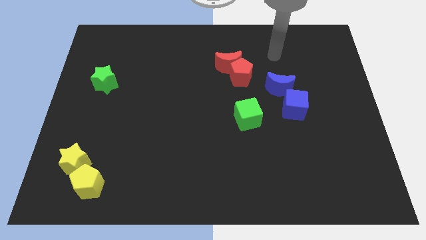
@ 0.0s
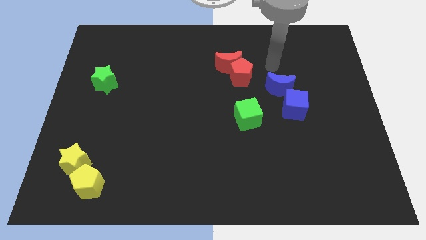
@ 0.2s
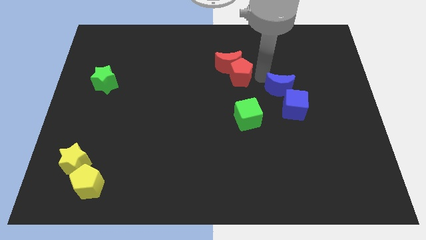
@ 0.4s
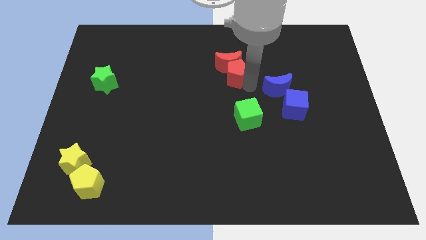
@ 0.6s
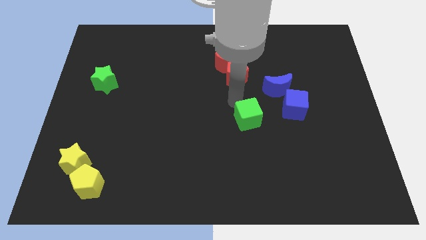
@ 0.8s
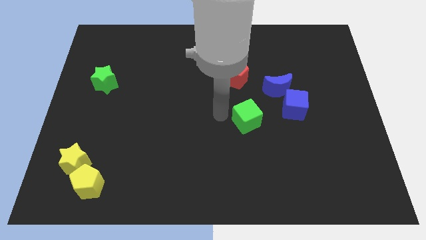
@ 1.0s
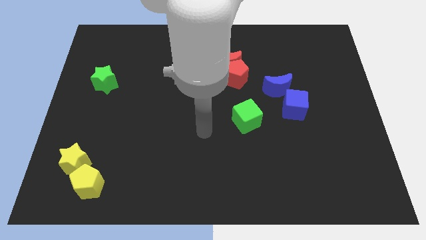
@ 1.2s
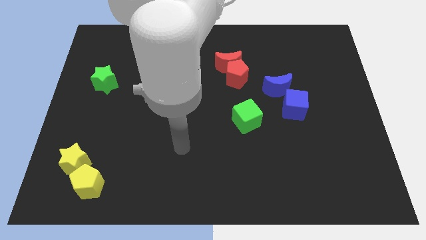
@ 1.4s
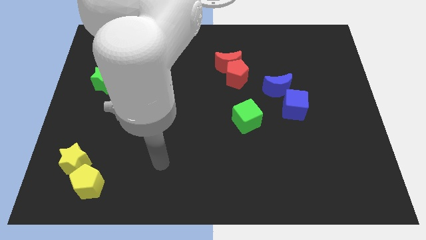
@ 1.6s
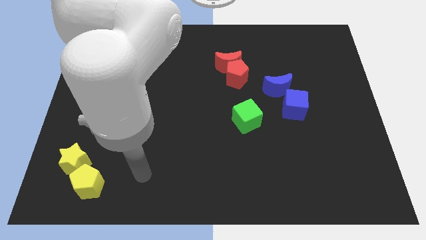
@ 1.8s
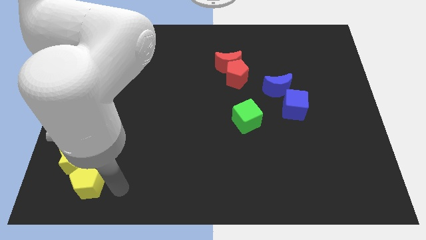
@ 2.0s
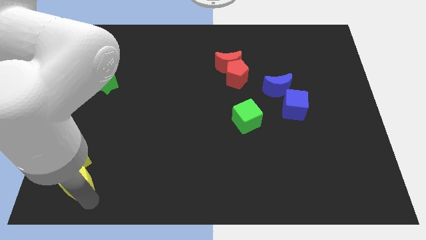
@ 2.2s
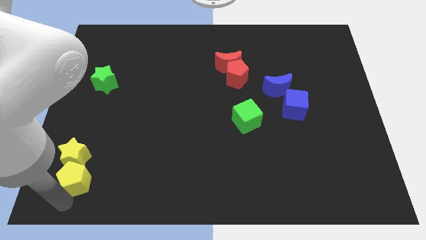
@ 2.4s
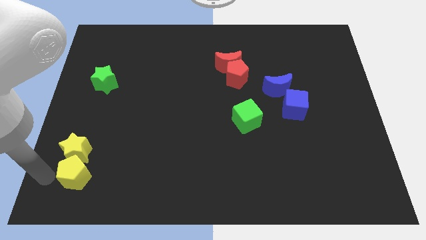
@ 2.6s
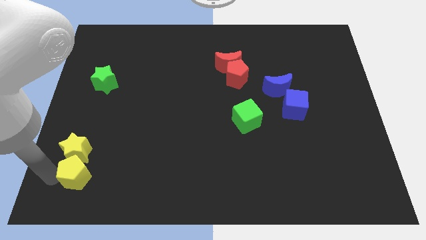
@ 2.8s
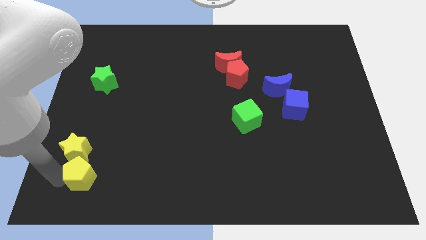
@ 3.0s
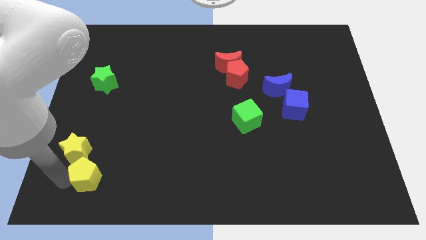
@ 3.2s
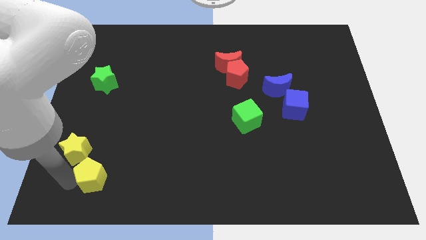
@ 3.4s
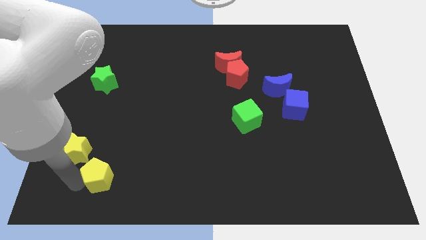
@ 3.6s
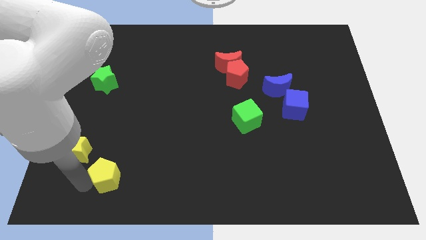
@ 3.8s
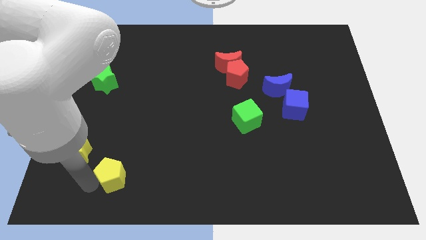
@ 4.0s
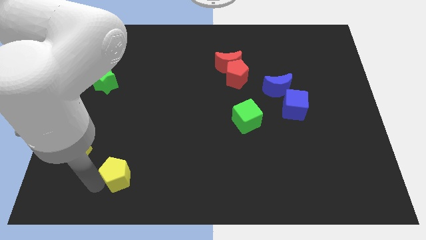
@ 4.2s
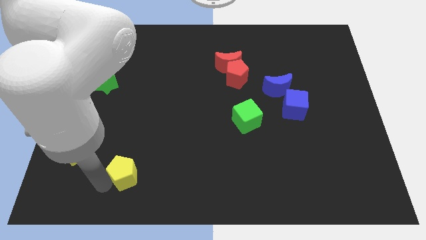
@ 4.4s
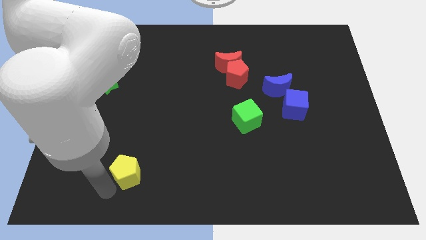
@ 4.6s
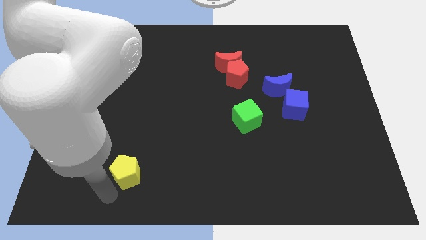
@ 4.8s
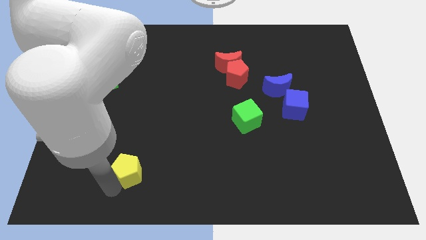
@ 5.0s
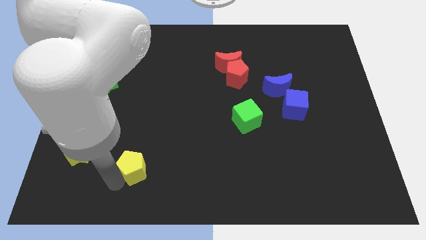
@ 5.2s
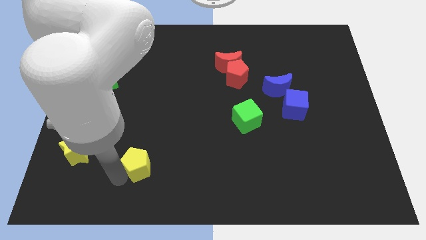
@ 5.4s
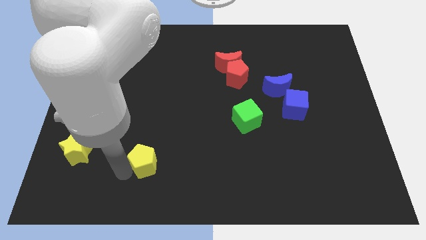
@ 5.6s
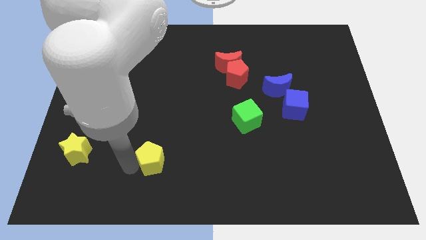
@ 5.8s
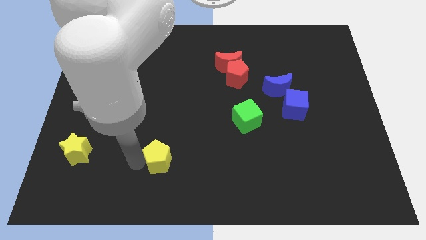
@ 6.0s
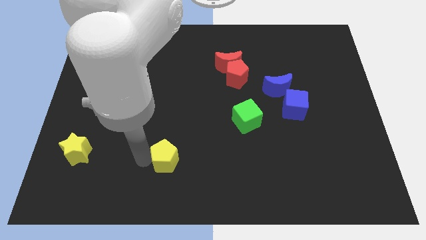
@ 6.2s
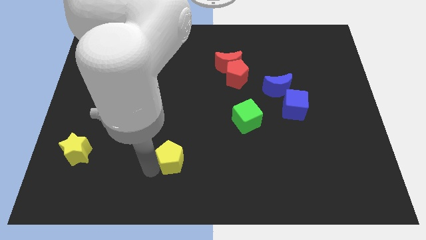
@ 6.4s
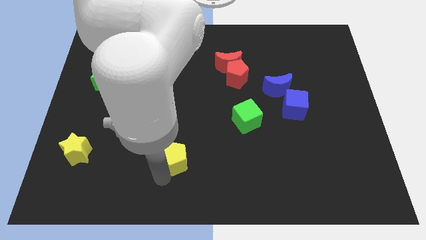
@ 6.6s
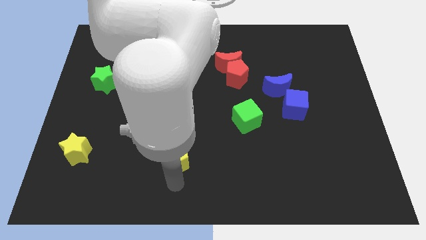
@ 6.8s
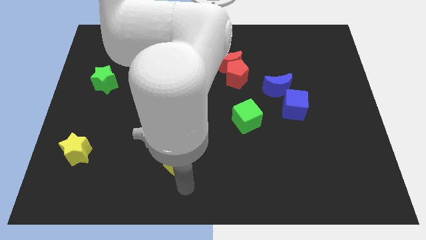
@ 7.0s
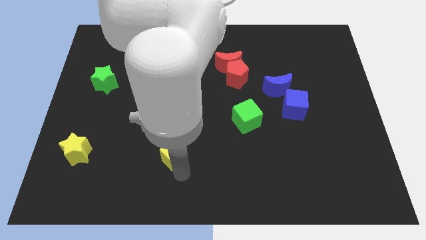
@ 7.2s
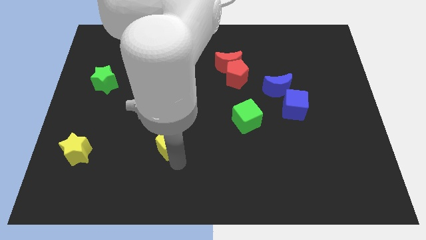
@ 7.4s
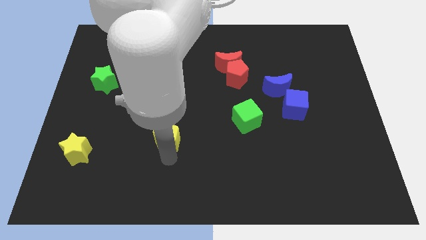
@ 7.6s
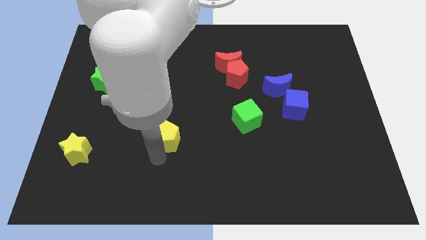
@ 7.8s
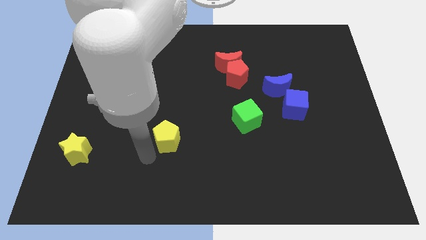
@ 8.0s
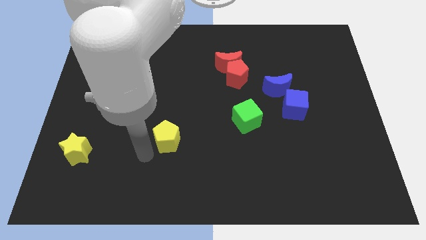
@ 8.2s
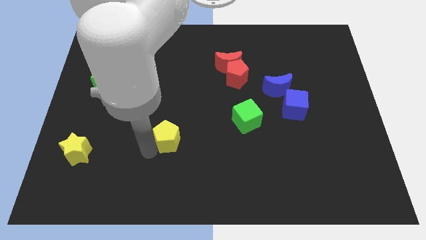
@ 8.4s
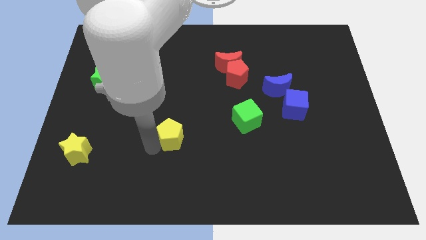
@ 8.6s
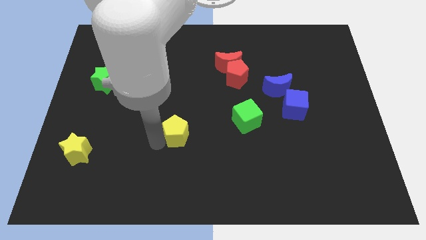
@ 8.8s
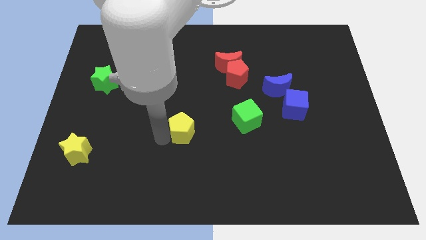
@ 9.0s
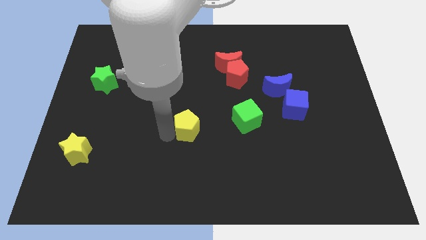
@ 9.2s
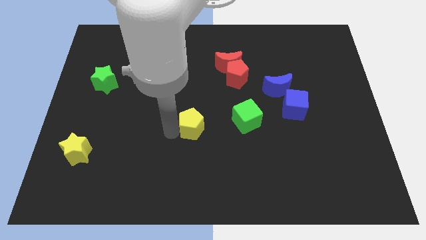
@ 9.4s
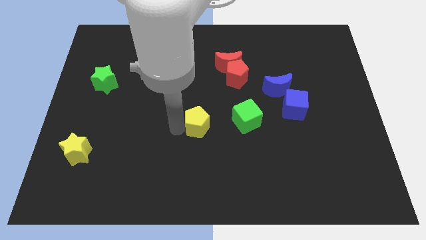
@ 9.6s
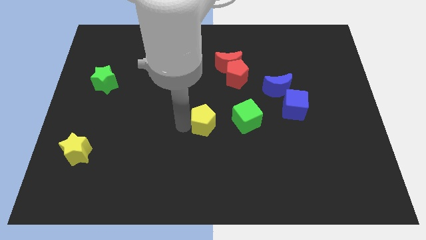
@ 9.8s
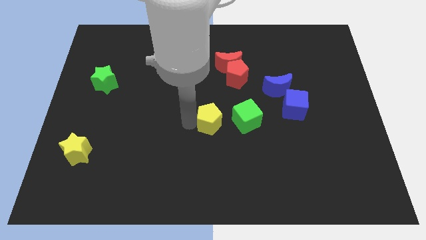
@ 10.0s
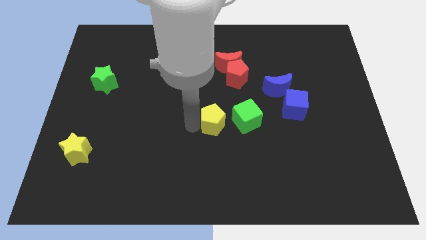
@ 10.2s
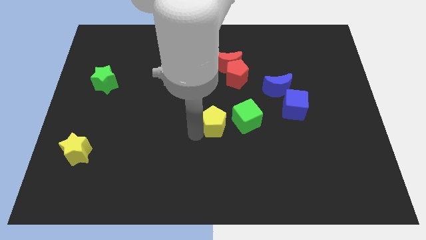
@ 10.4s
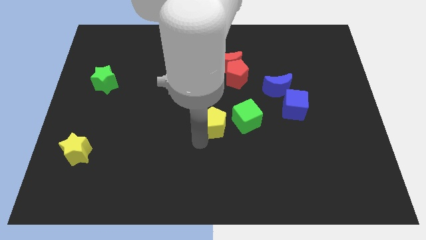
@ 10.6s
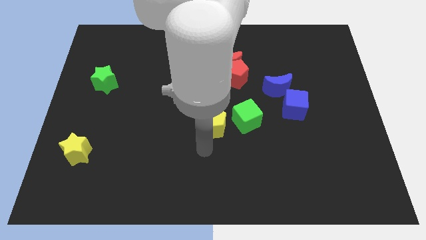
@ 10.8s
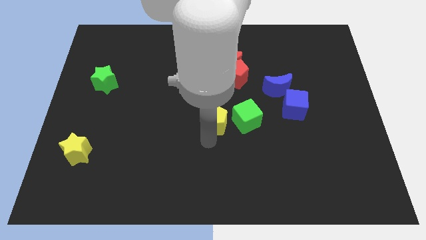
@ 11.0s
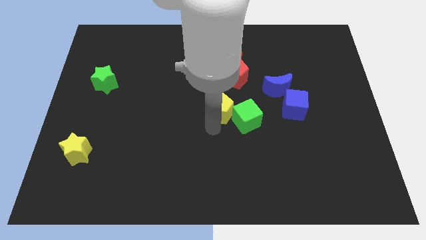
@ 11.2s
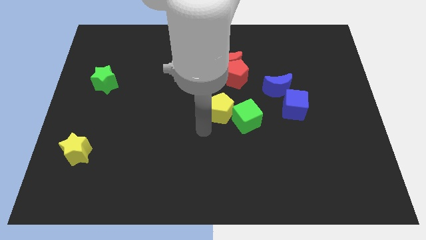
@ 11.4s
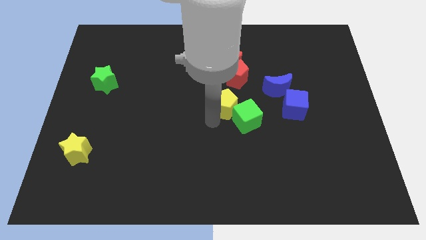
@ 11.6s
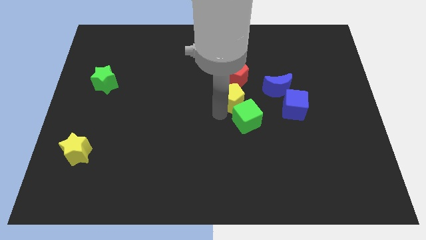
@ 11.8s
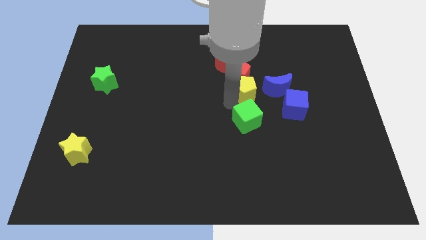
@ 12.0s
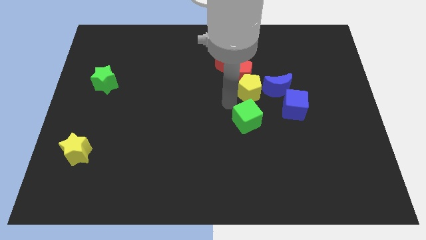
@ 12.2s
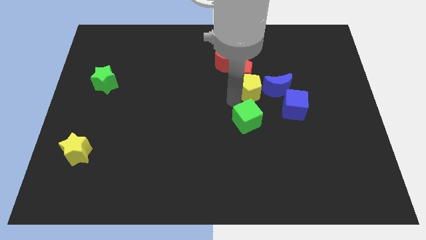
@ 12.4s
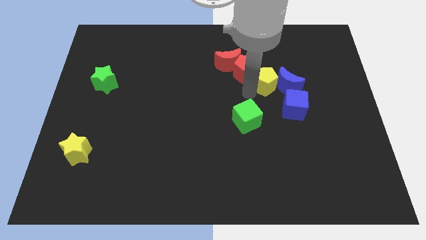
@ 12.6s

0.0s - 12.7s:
slide the yellow pentagon right of the red pentagon

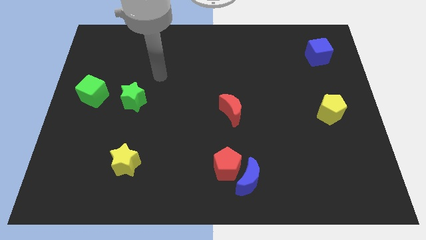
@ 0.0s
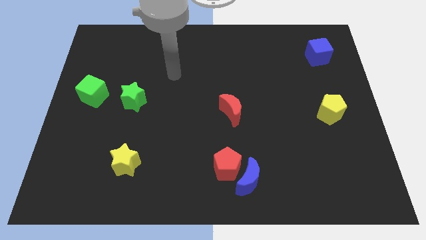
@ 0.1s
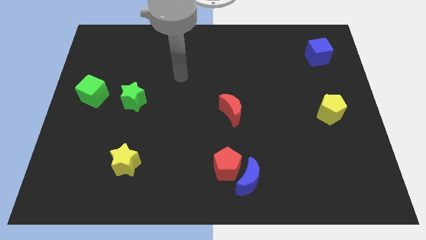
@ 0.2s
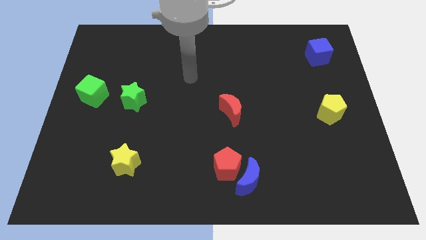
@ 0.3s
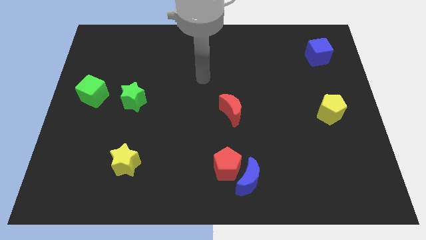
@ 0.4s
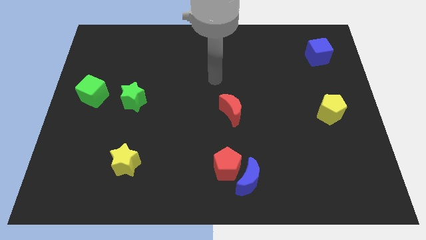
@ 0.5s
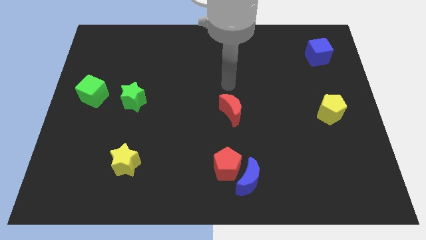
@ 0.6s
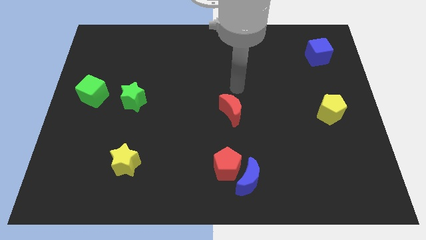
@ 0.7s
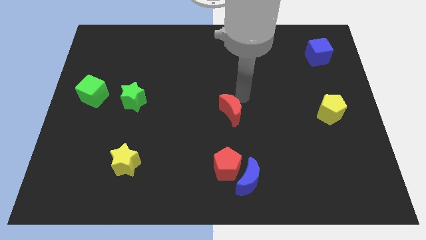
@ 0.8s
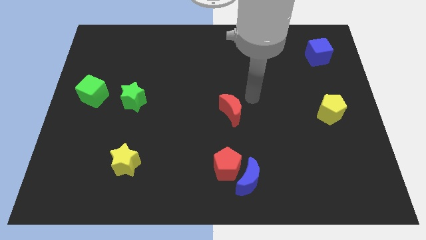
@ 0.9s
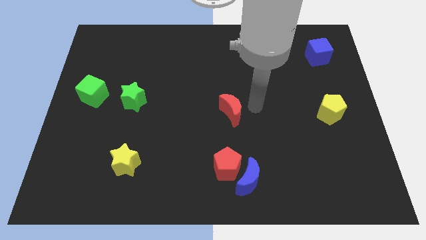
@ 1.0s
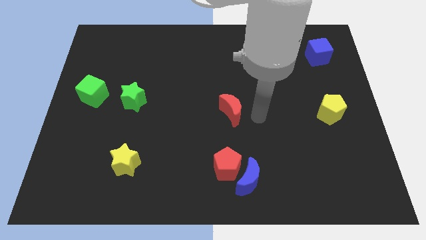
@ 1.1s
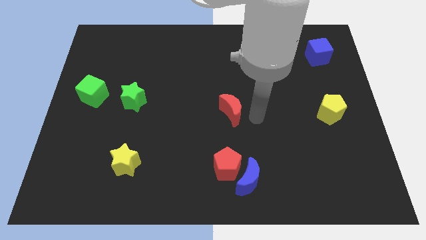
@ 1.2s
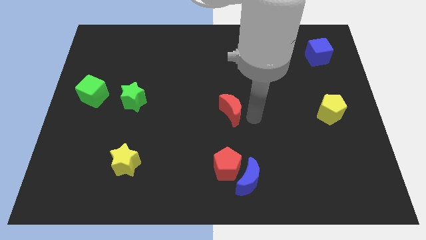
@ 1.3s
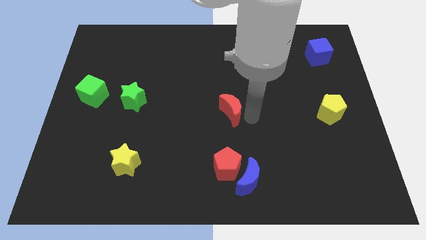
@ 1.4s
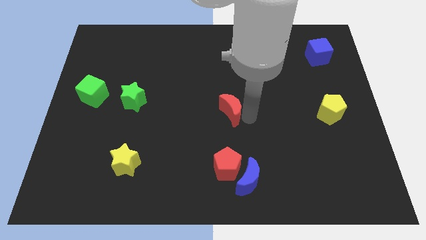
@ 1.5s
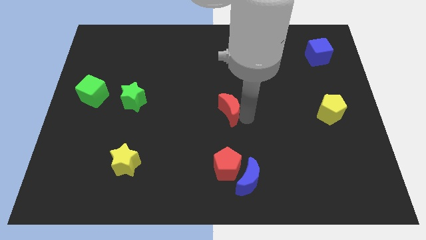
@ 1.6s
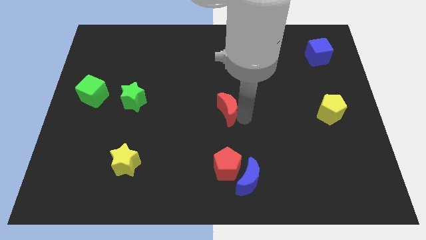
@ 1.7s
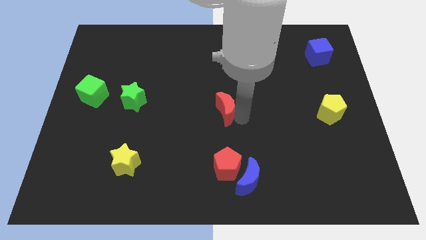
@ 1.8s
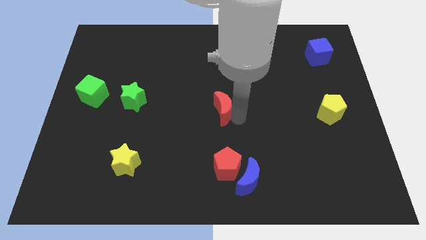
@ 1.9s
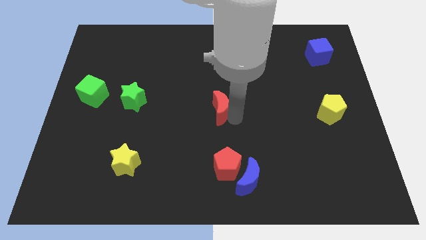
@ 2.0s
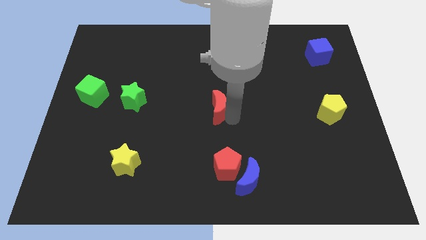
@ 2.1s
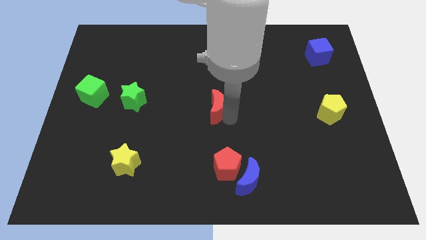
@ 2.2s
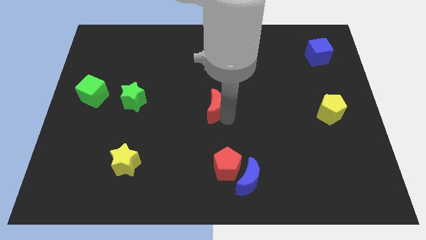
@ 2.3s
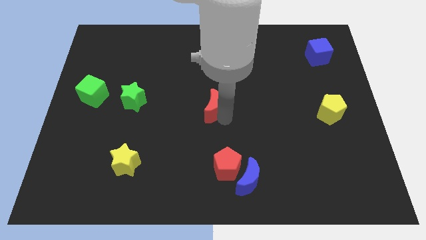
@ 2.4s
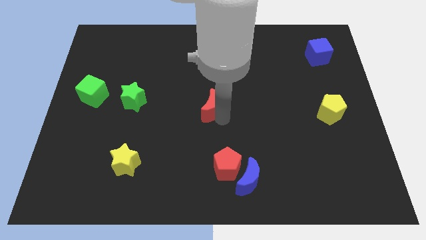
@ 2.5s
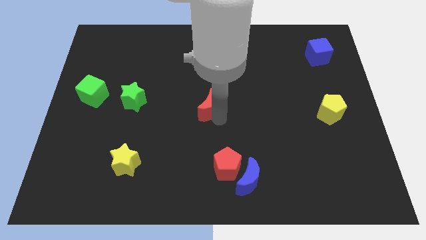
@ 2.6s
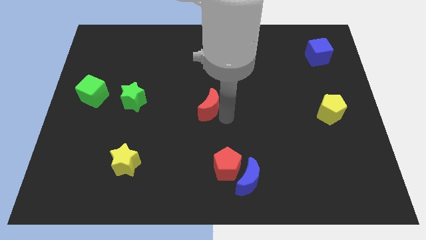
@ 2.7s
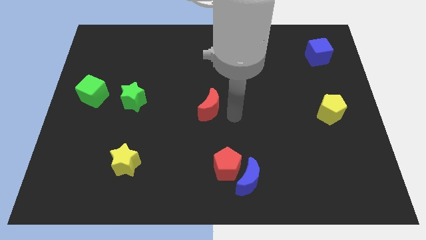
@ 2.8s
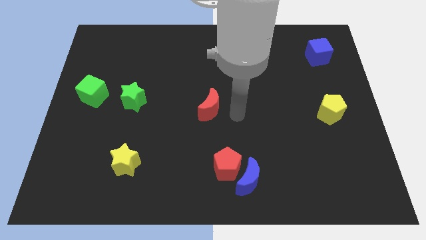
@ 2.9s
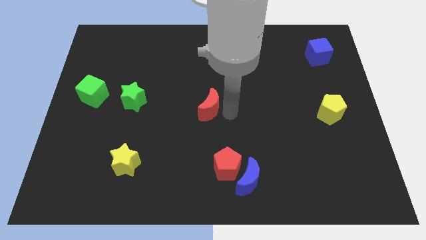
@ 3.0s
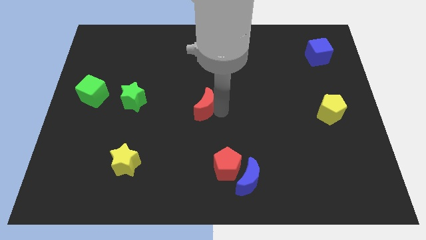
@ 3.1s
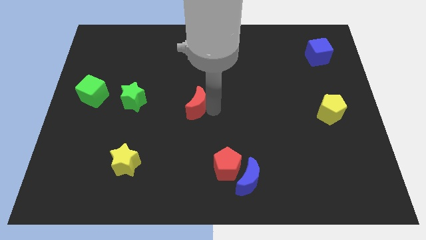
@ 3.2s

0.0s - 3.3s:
push the red moon to the right side of the green star
